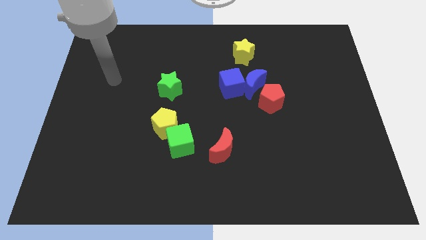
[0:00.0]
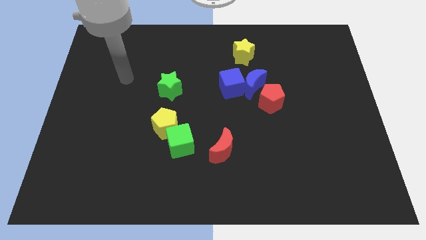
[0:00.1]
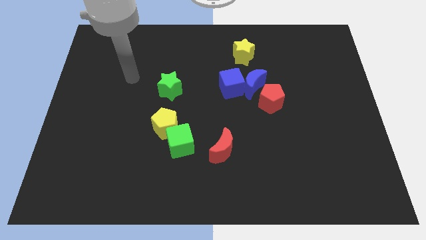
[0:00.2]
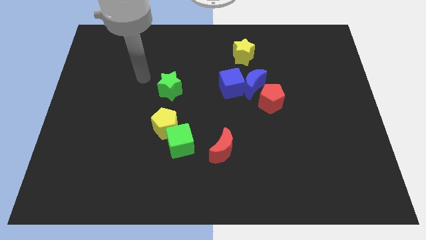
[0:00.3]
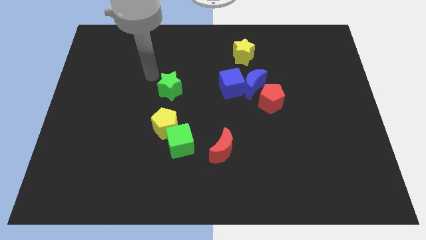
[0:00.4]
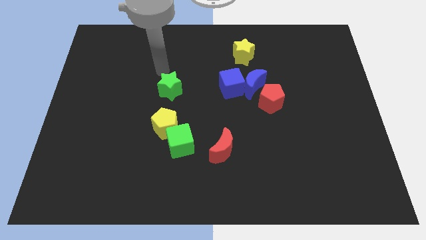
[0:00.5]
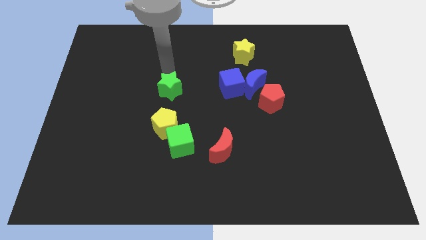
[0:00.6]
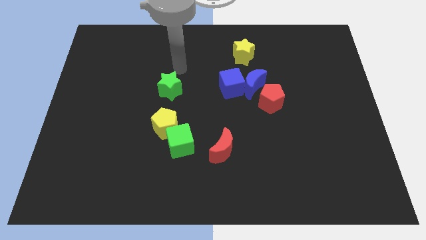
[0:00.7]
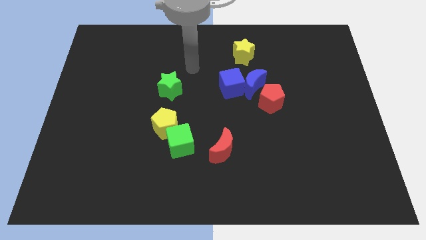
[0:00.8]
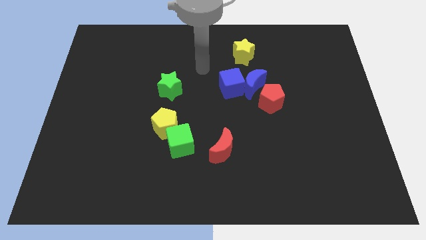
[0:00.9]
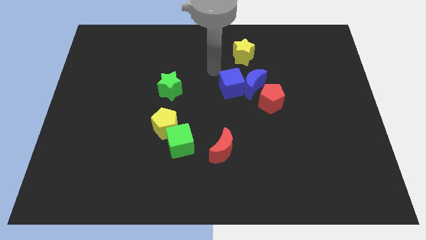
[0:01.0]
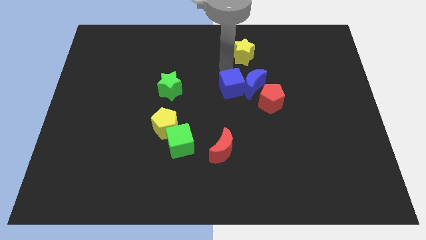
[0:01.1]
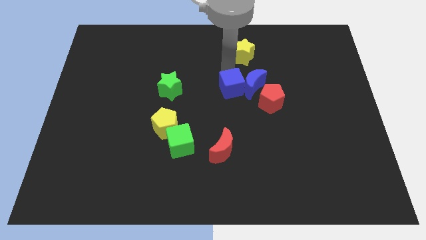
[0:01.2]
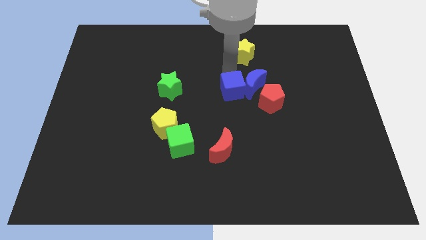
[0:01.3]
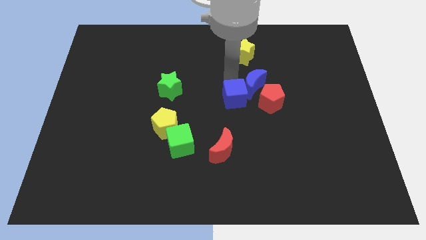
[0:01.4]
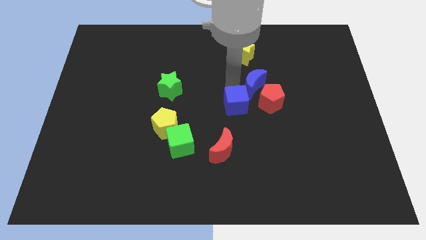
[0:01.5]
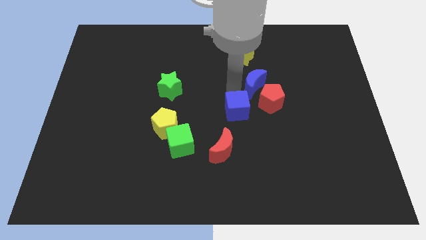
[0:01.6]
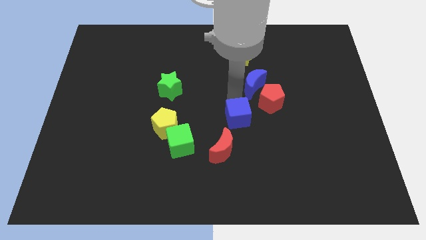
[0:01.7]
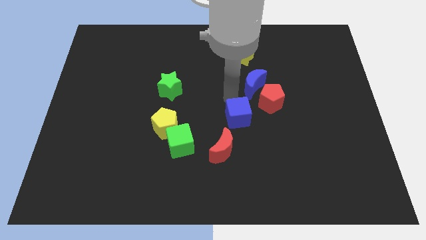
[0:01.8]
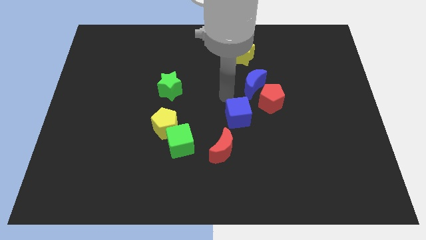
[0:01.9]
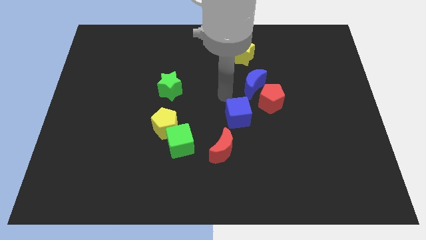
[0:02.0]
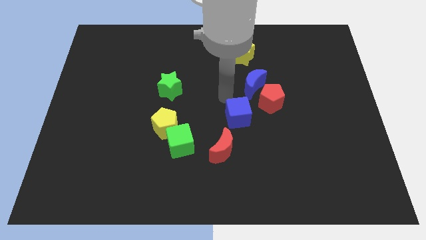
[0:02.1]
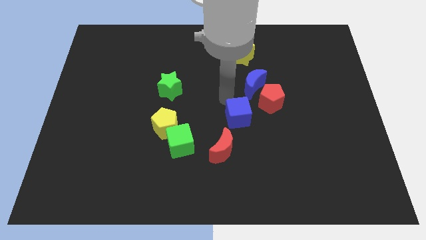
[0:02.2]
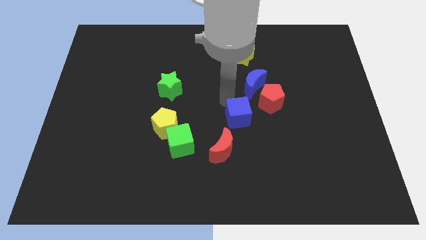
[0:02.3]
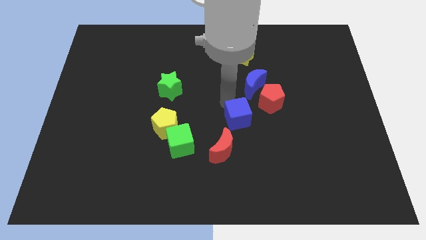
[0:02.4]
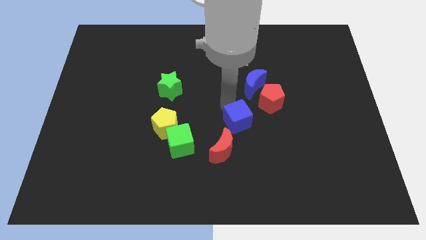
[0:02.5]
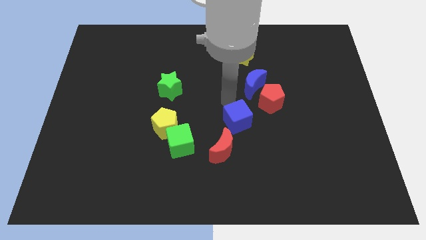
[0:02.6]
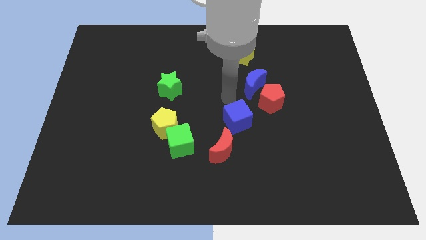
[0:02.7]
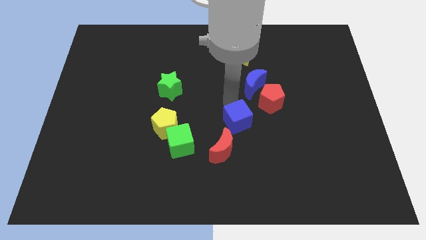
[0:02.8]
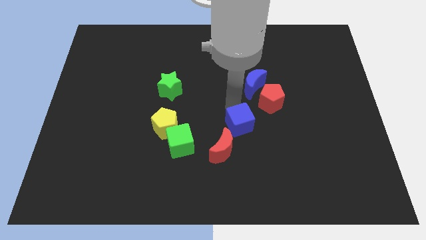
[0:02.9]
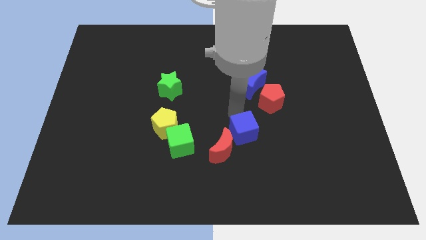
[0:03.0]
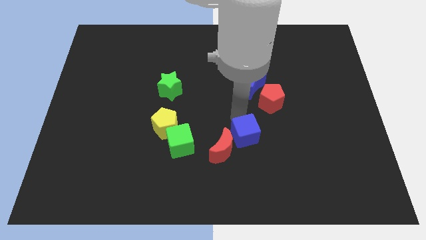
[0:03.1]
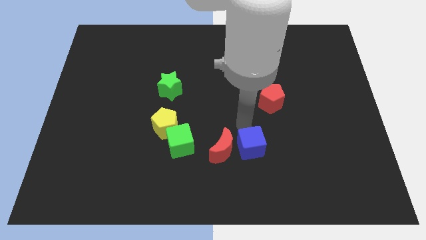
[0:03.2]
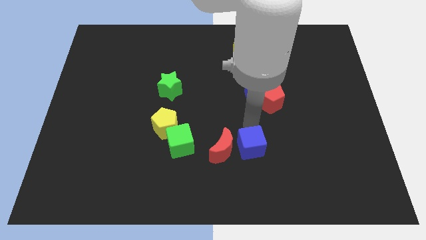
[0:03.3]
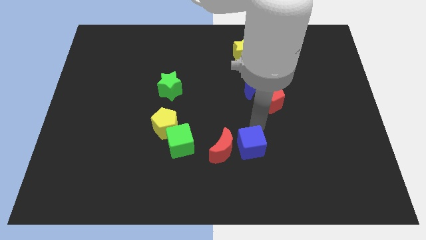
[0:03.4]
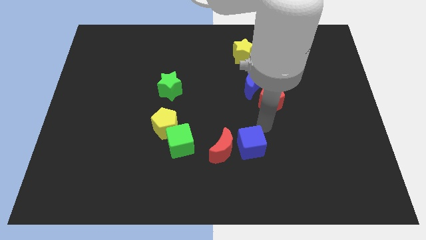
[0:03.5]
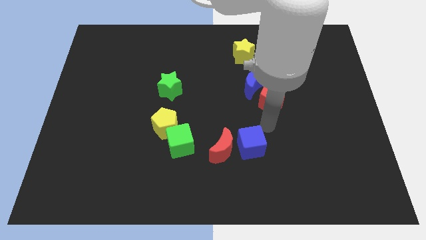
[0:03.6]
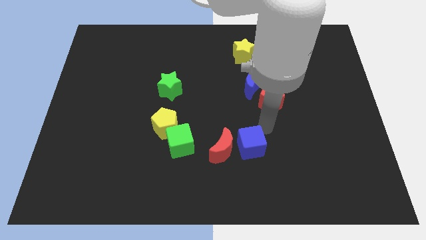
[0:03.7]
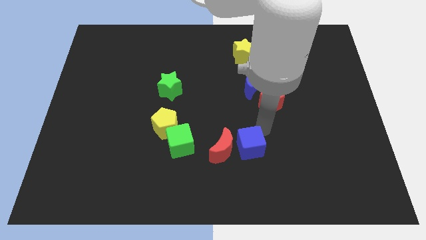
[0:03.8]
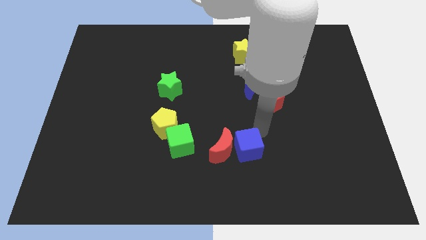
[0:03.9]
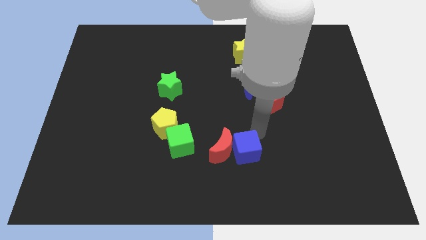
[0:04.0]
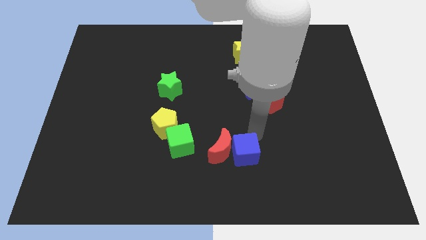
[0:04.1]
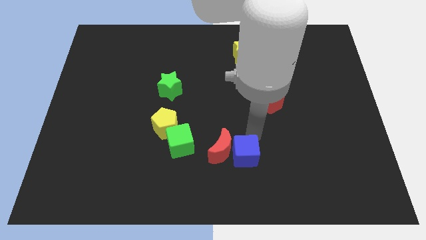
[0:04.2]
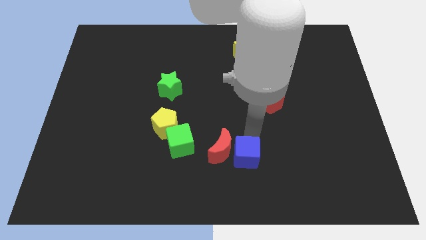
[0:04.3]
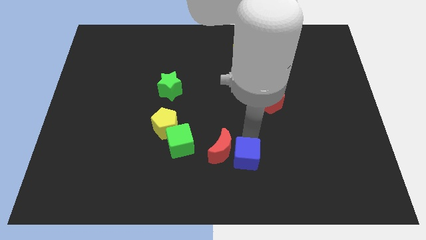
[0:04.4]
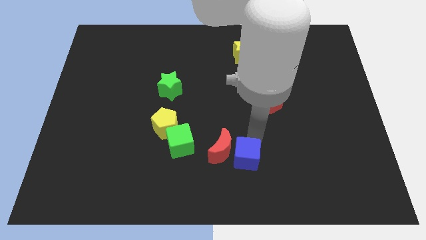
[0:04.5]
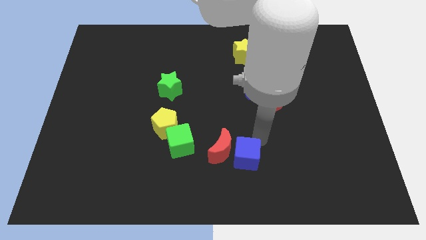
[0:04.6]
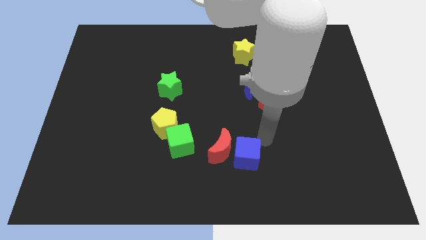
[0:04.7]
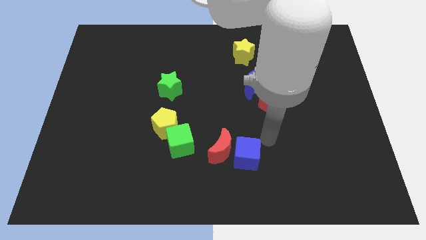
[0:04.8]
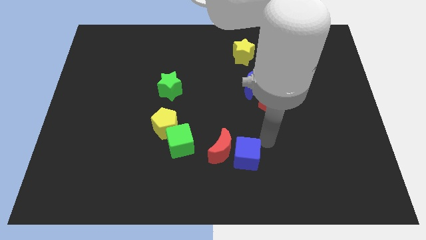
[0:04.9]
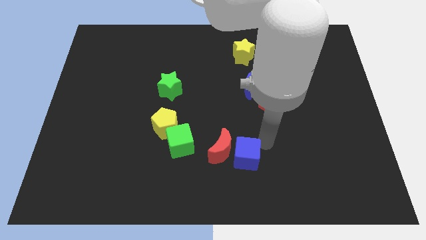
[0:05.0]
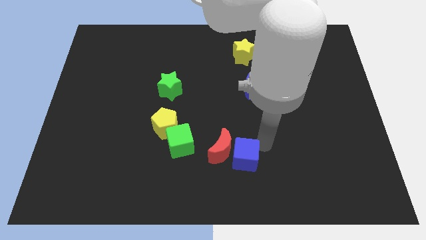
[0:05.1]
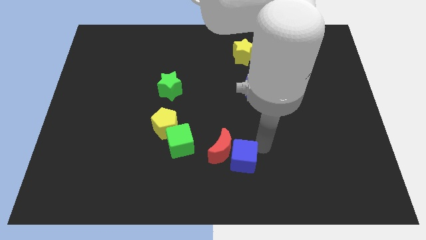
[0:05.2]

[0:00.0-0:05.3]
push the blue cube to the bottom side
